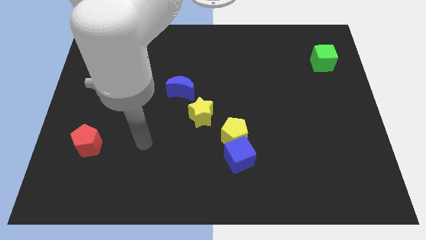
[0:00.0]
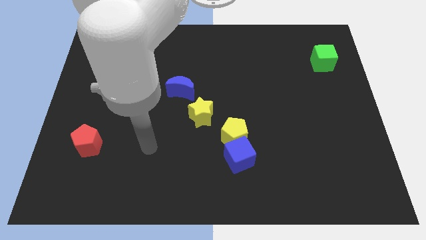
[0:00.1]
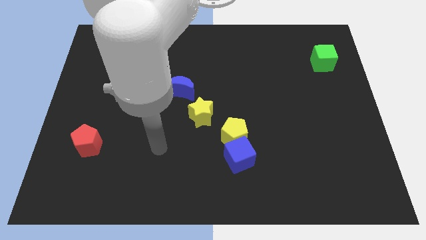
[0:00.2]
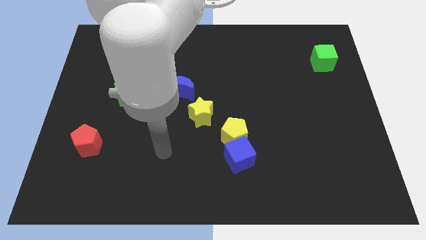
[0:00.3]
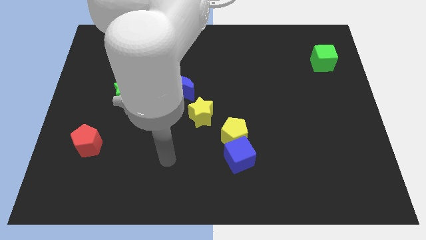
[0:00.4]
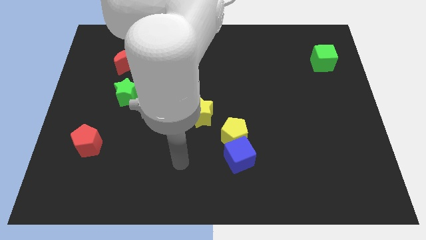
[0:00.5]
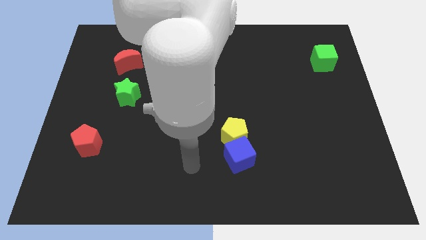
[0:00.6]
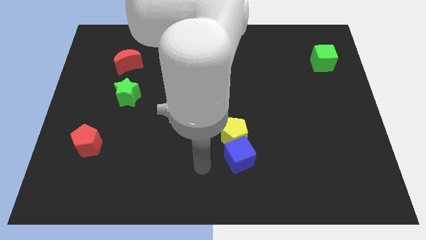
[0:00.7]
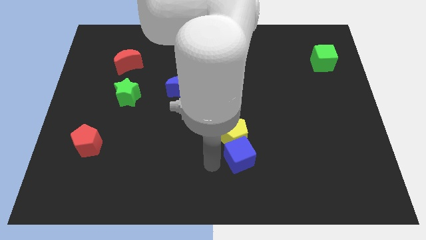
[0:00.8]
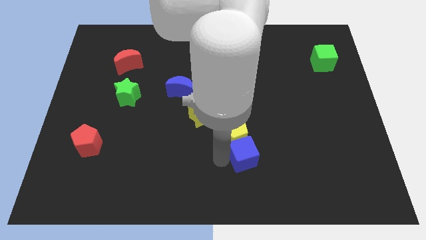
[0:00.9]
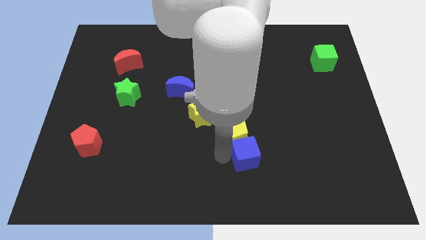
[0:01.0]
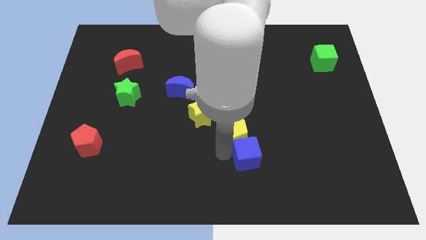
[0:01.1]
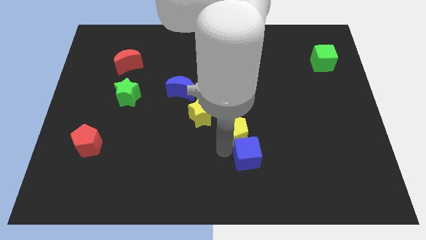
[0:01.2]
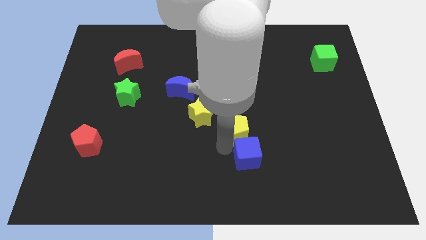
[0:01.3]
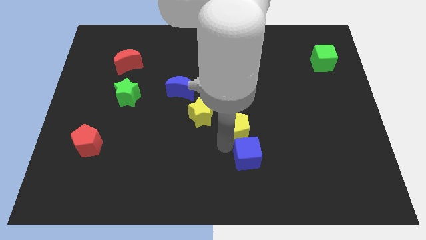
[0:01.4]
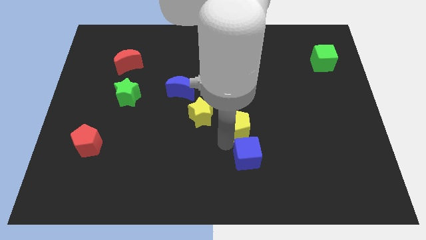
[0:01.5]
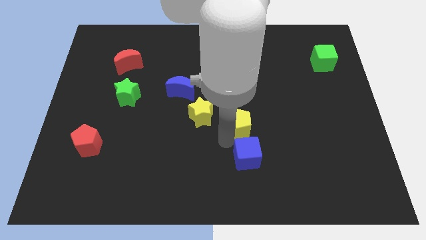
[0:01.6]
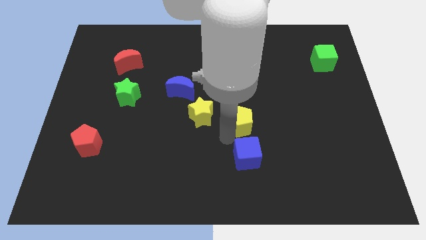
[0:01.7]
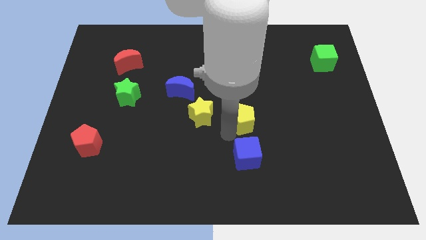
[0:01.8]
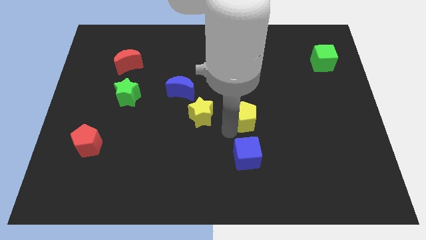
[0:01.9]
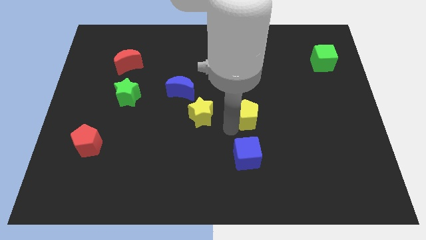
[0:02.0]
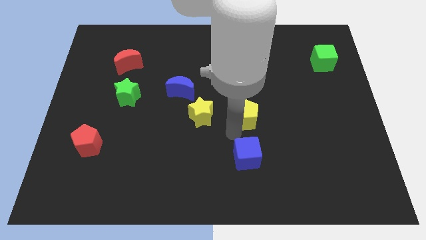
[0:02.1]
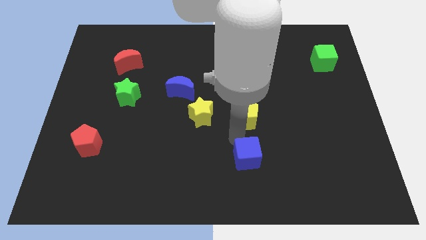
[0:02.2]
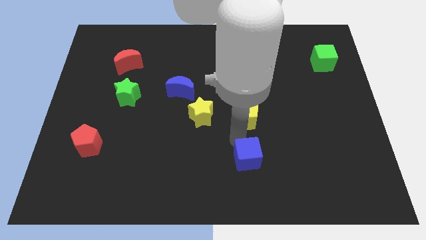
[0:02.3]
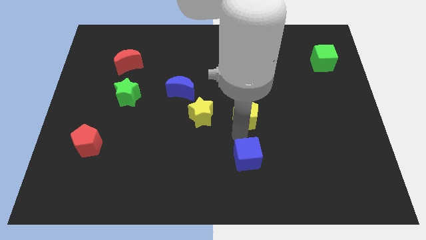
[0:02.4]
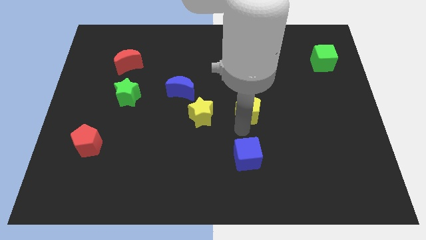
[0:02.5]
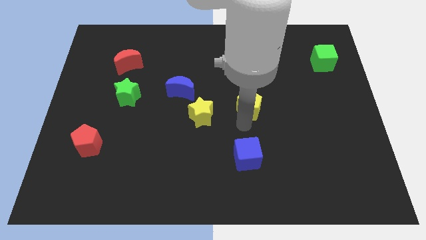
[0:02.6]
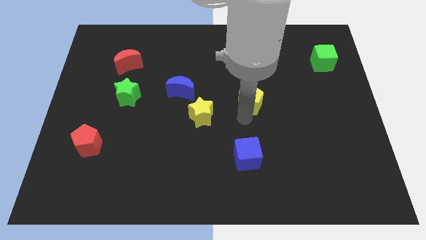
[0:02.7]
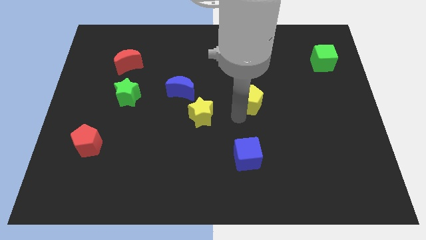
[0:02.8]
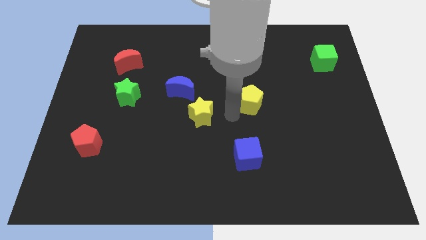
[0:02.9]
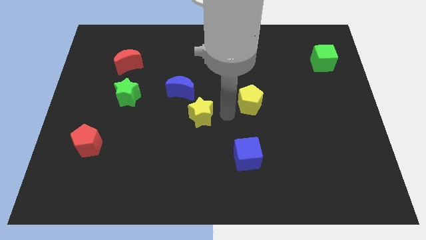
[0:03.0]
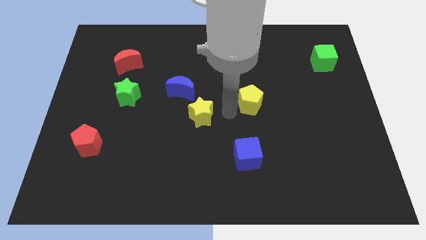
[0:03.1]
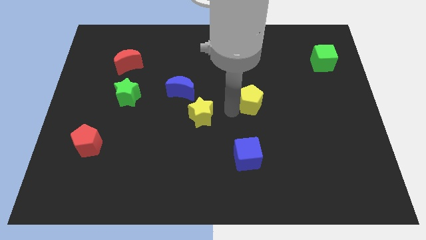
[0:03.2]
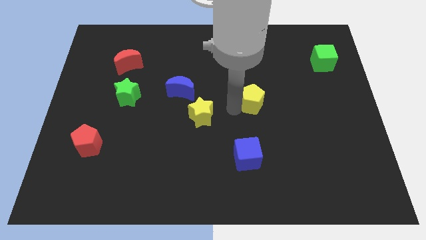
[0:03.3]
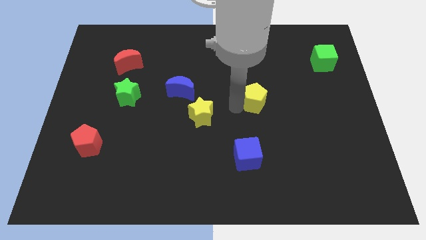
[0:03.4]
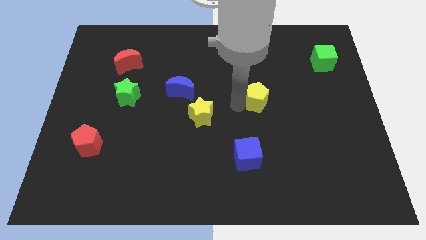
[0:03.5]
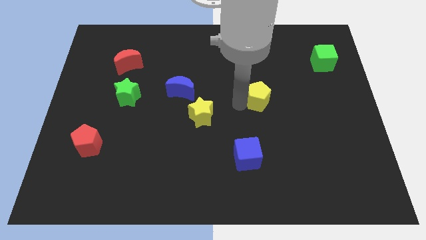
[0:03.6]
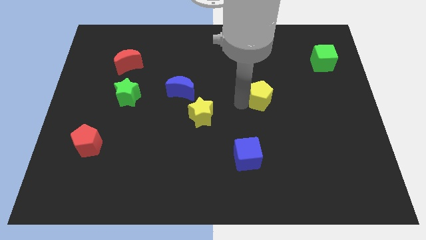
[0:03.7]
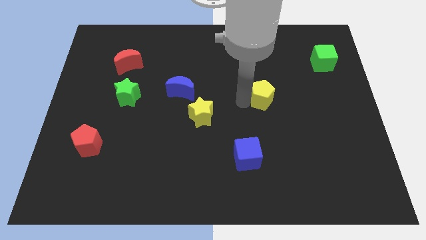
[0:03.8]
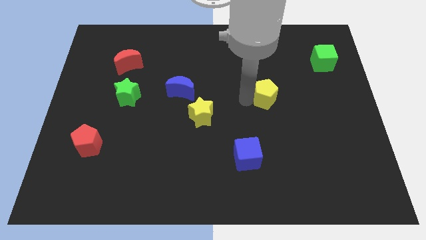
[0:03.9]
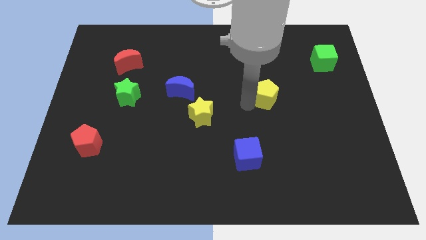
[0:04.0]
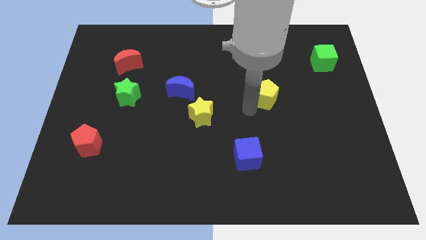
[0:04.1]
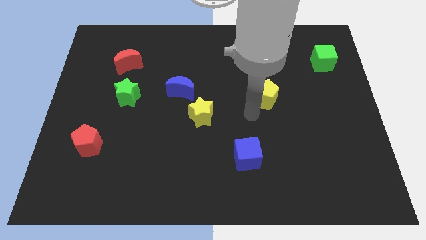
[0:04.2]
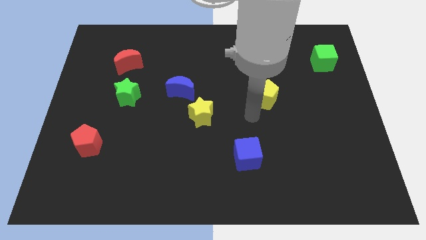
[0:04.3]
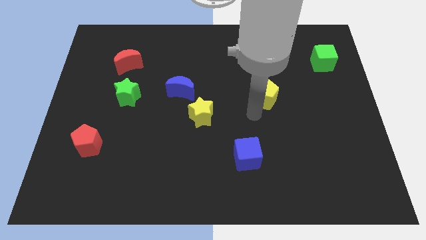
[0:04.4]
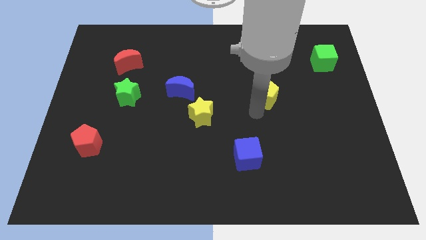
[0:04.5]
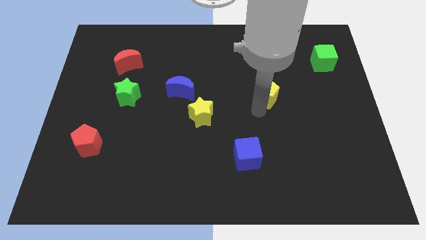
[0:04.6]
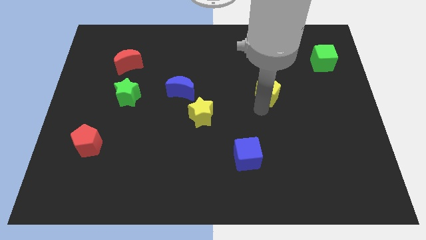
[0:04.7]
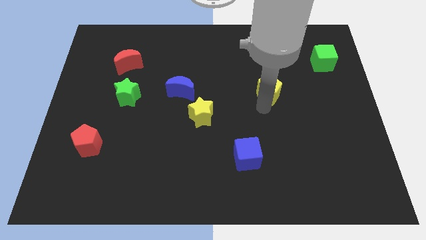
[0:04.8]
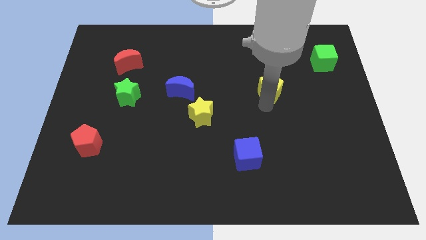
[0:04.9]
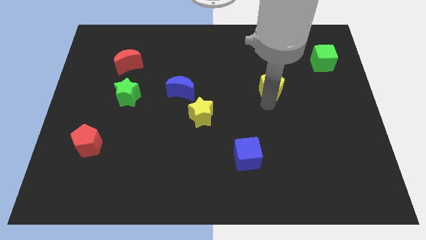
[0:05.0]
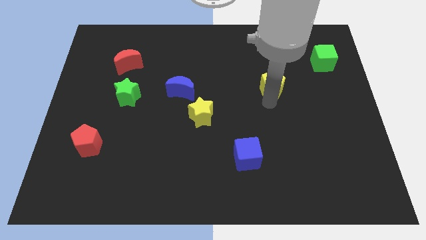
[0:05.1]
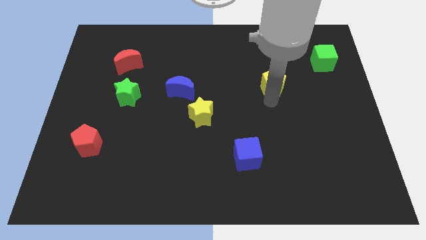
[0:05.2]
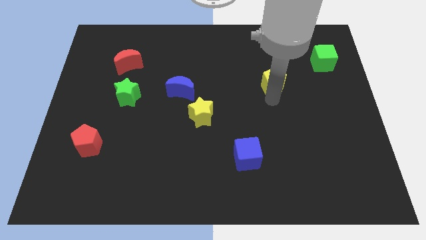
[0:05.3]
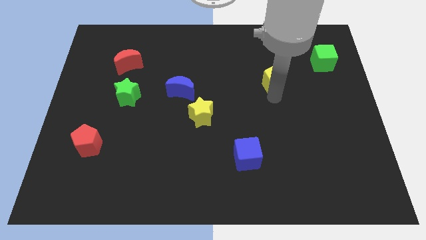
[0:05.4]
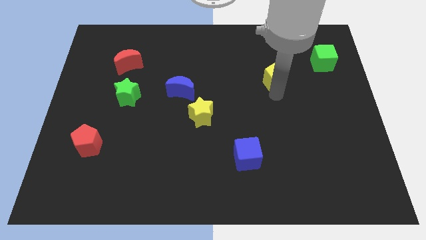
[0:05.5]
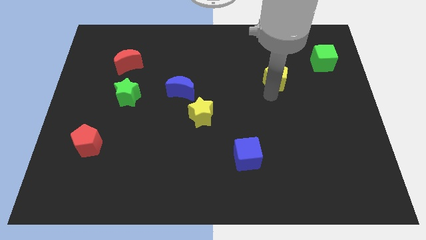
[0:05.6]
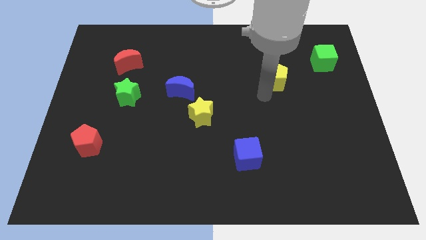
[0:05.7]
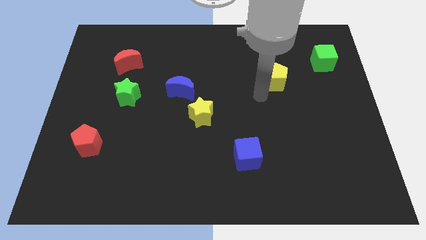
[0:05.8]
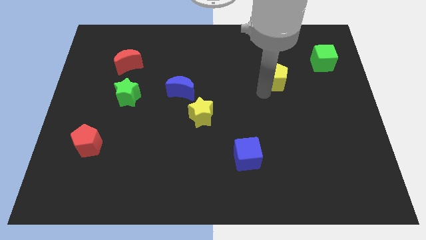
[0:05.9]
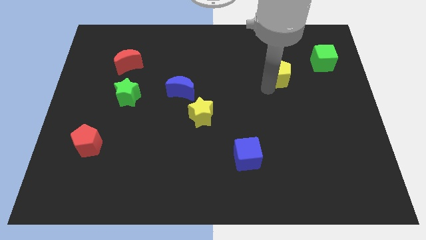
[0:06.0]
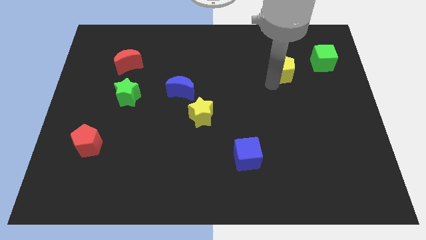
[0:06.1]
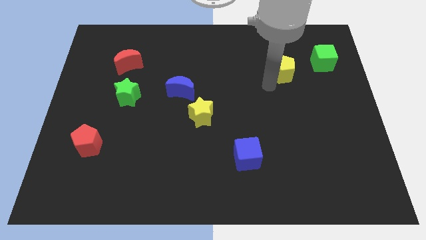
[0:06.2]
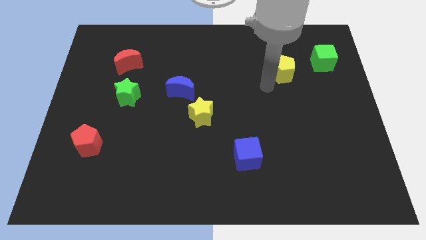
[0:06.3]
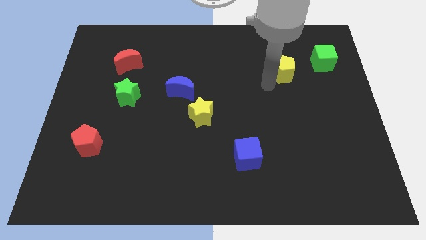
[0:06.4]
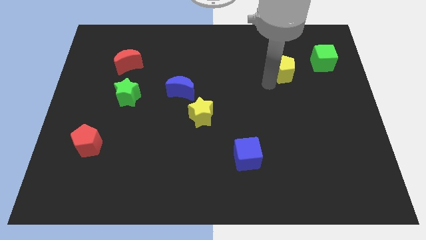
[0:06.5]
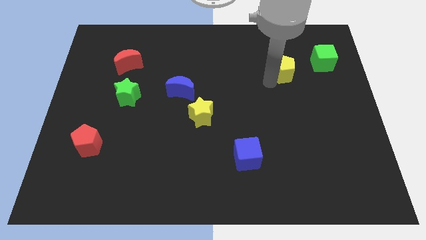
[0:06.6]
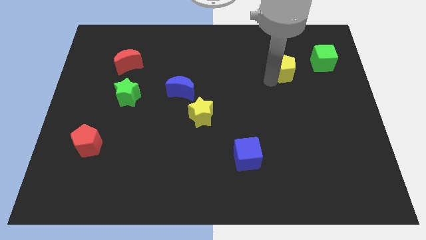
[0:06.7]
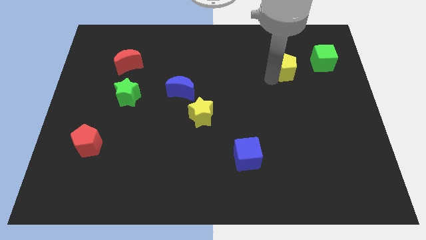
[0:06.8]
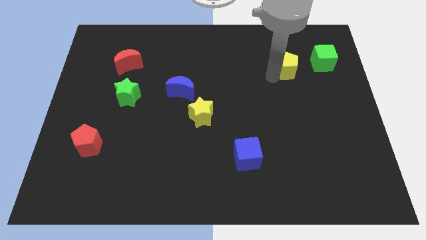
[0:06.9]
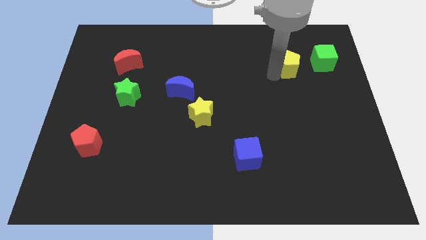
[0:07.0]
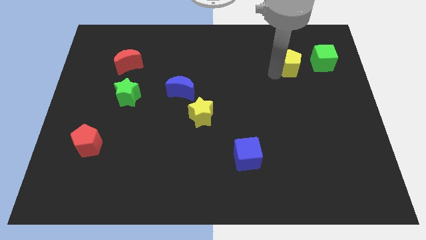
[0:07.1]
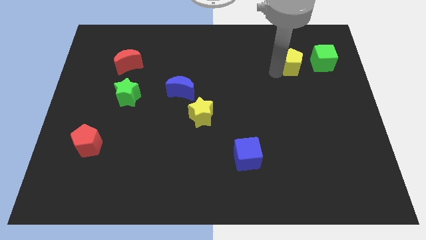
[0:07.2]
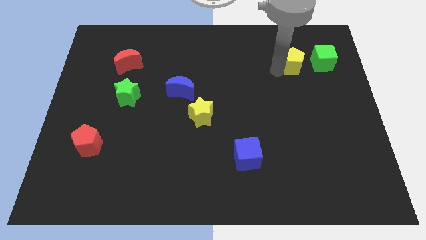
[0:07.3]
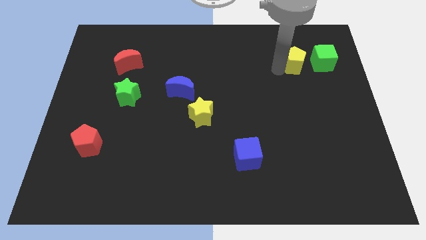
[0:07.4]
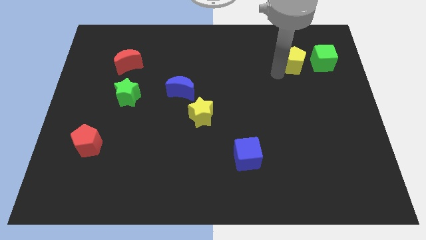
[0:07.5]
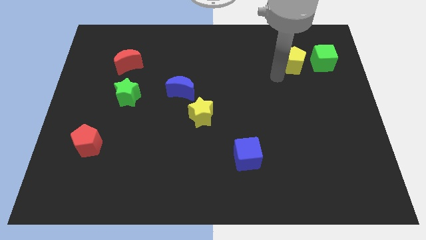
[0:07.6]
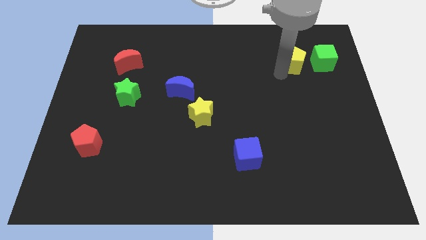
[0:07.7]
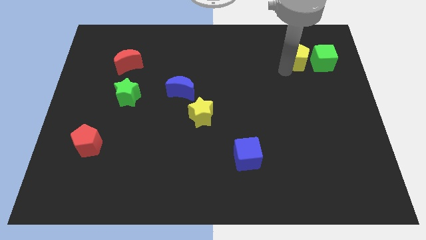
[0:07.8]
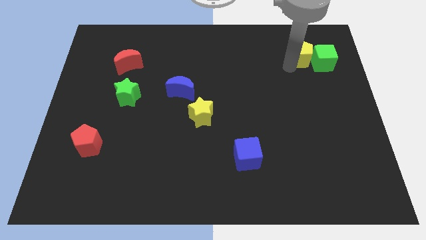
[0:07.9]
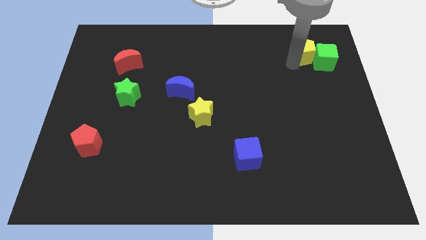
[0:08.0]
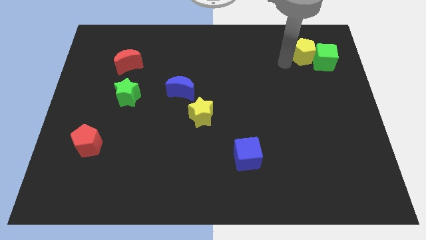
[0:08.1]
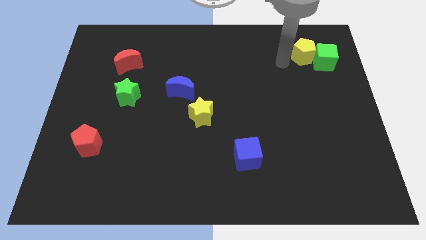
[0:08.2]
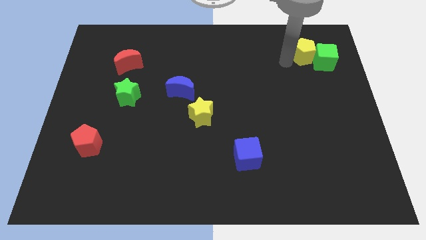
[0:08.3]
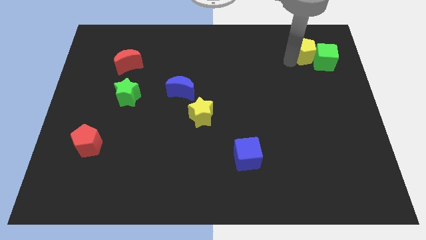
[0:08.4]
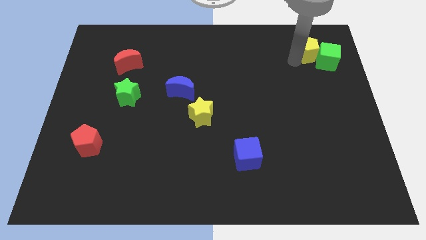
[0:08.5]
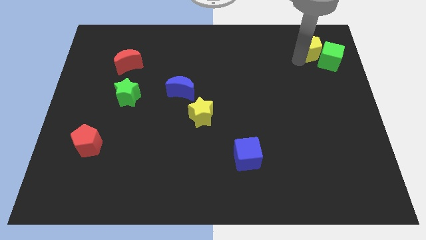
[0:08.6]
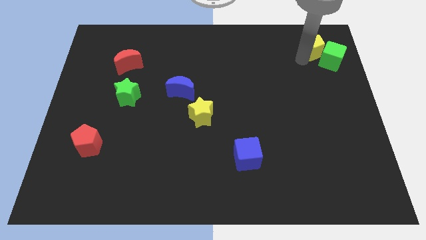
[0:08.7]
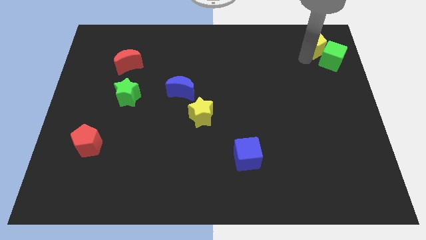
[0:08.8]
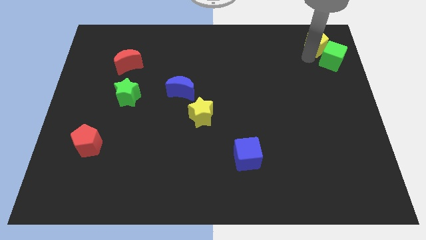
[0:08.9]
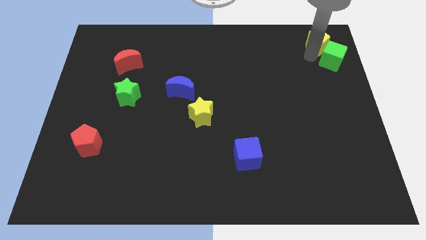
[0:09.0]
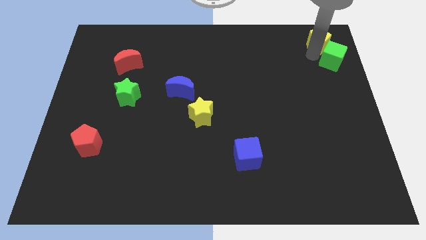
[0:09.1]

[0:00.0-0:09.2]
push the yellow pentagon to the top right
